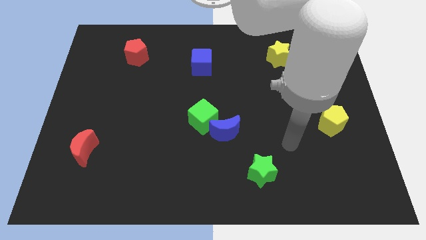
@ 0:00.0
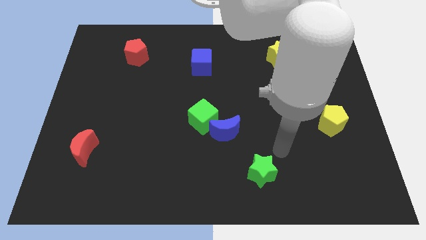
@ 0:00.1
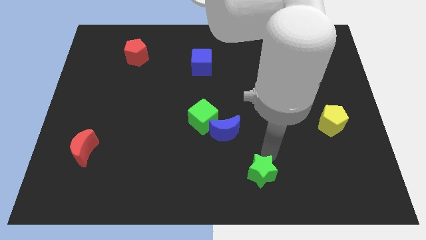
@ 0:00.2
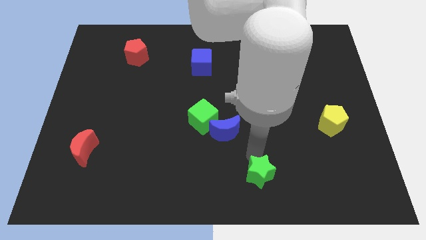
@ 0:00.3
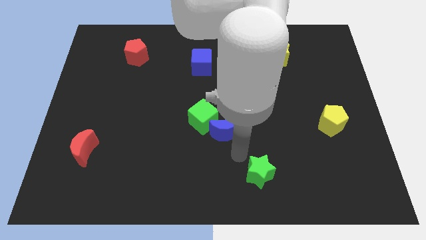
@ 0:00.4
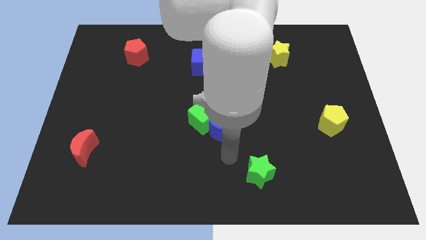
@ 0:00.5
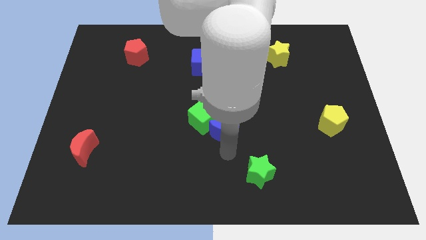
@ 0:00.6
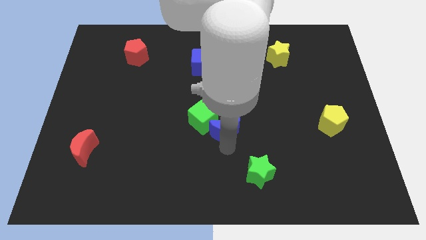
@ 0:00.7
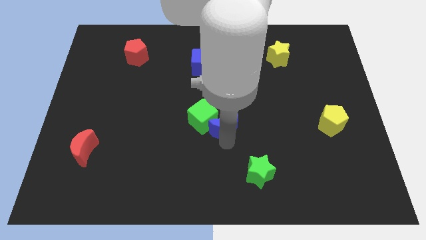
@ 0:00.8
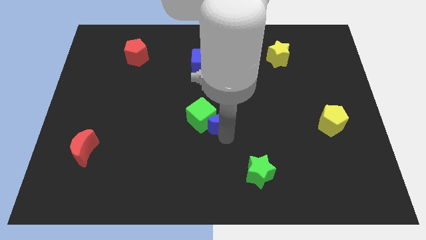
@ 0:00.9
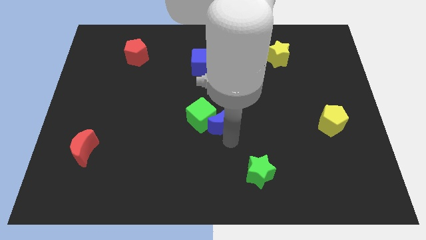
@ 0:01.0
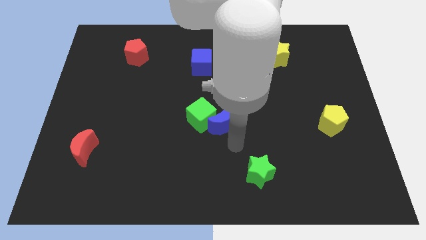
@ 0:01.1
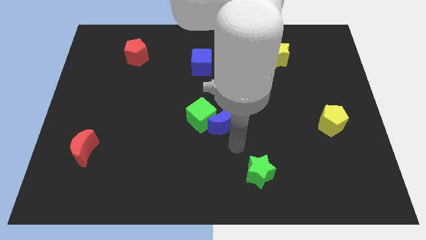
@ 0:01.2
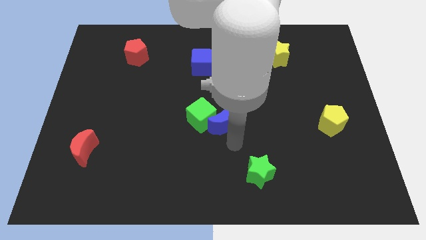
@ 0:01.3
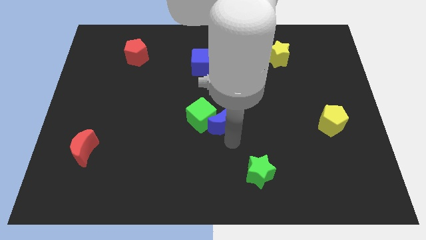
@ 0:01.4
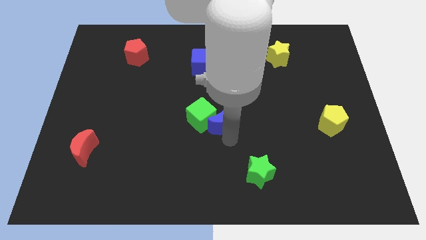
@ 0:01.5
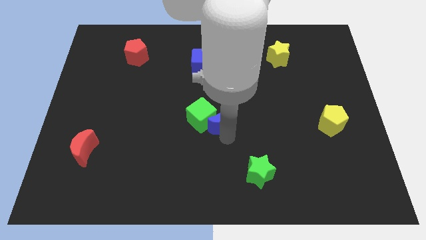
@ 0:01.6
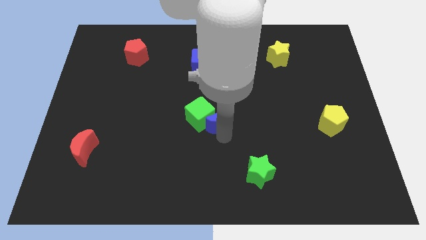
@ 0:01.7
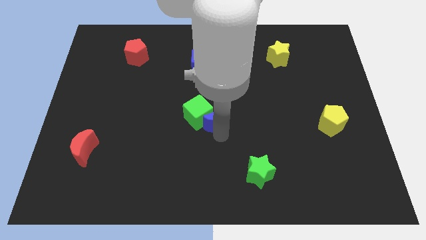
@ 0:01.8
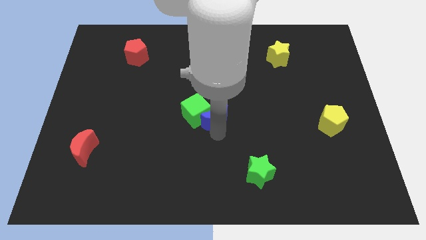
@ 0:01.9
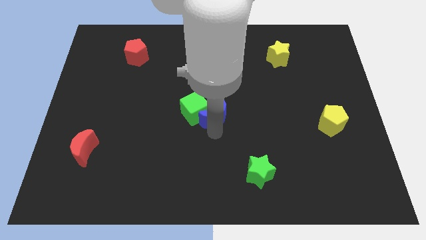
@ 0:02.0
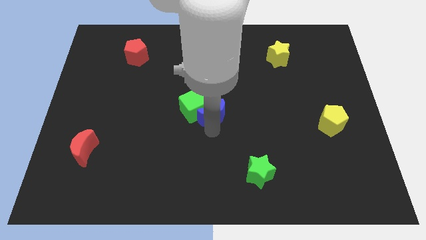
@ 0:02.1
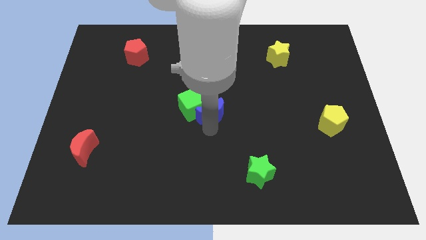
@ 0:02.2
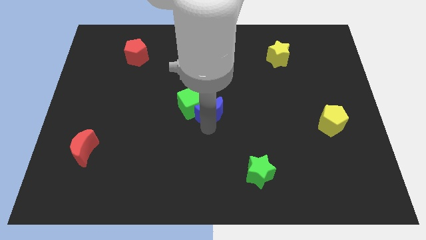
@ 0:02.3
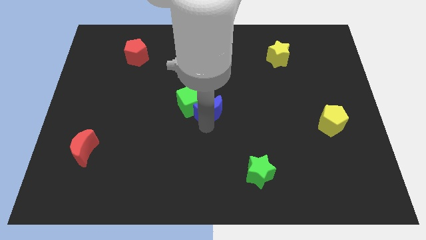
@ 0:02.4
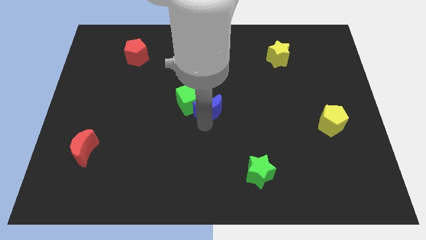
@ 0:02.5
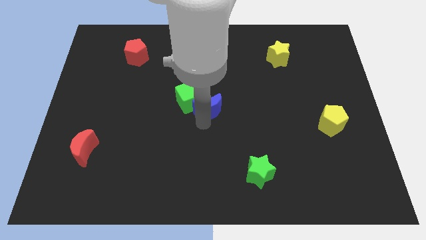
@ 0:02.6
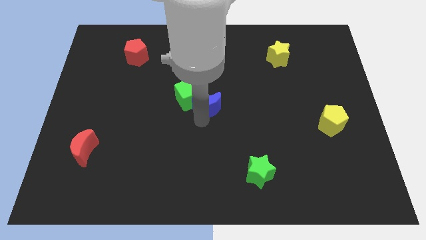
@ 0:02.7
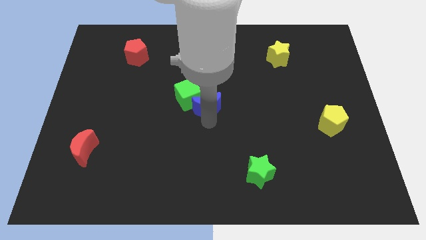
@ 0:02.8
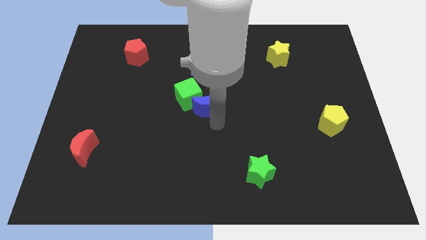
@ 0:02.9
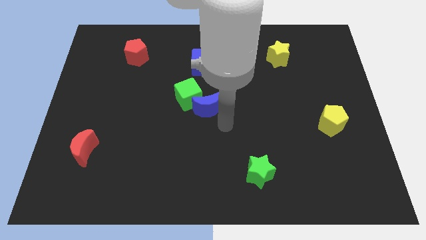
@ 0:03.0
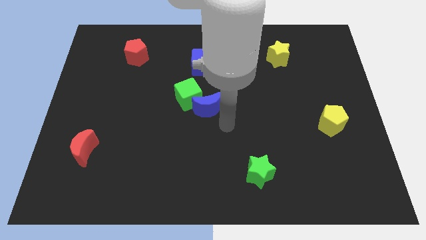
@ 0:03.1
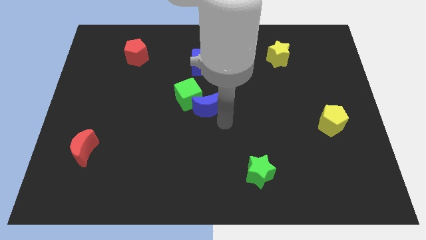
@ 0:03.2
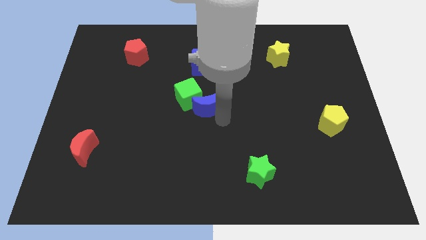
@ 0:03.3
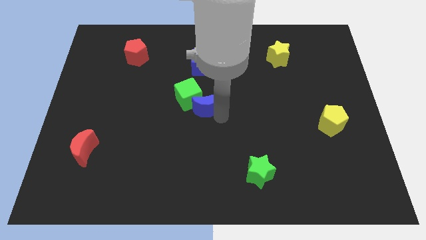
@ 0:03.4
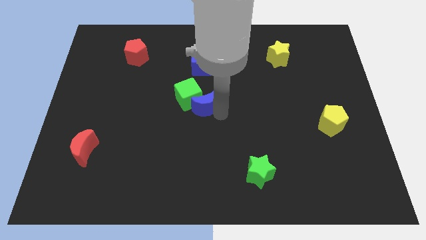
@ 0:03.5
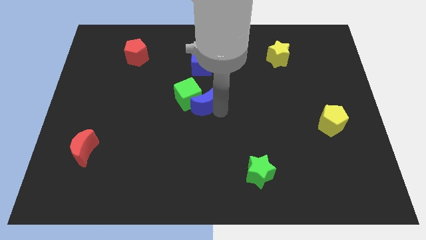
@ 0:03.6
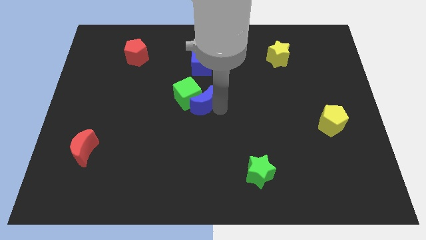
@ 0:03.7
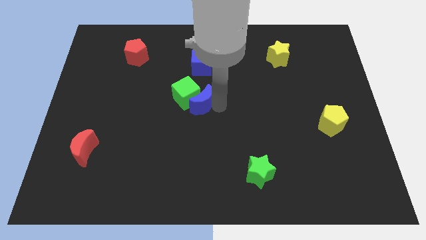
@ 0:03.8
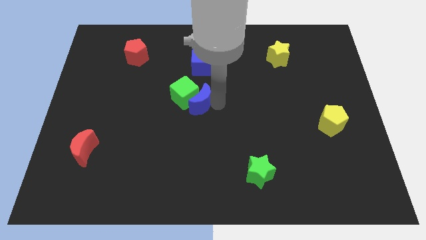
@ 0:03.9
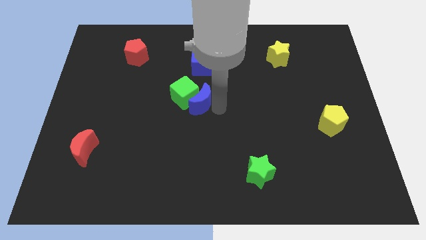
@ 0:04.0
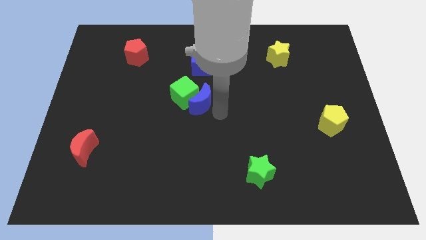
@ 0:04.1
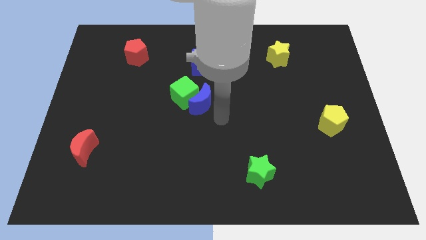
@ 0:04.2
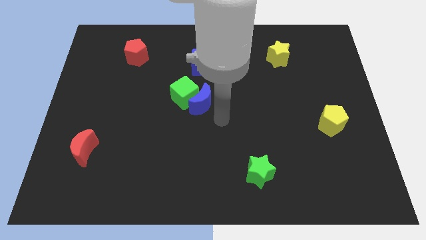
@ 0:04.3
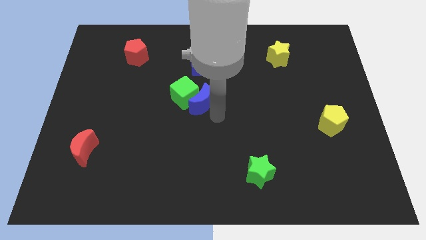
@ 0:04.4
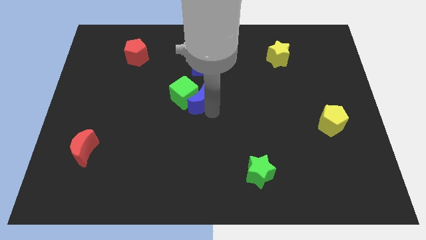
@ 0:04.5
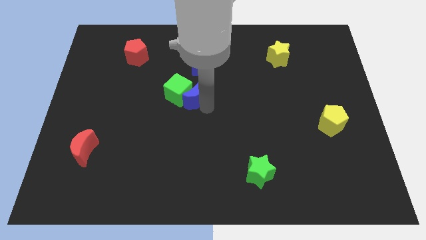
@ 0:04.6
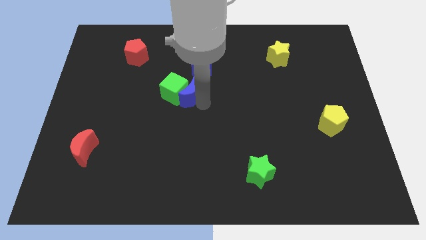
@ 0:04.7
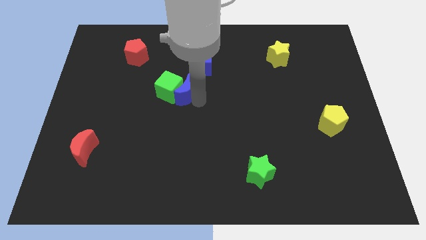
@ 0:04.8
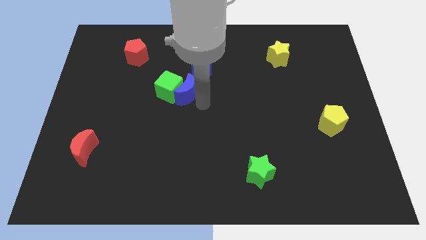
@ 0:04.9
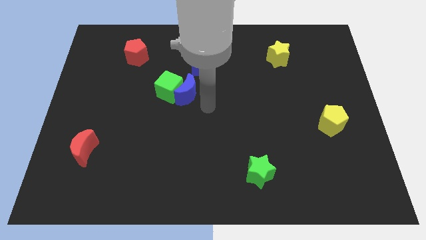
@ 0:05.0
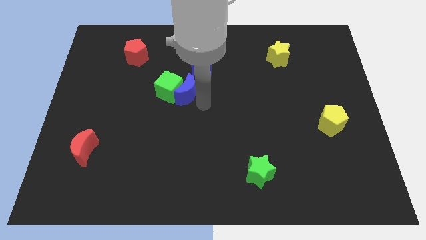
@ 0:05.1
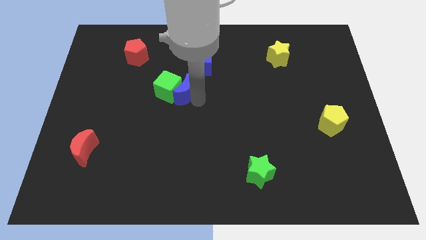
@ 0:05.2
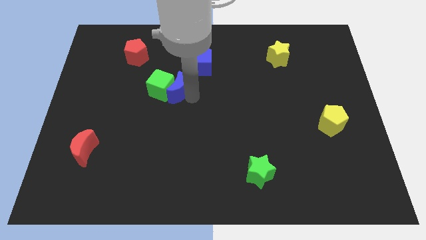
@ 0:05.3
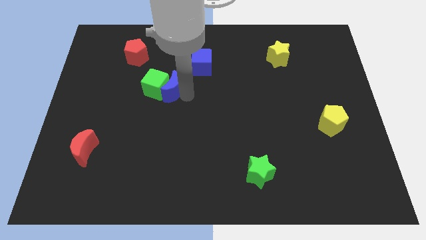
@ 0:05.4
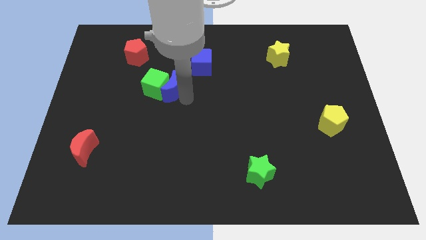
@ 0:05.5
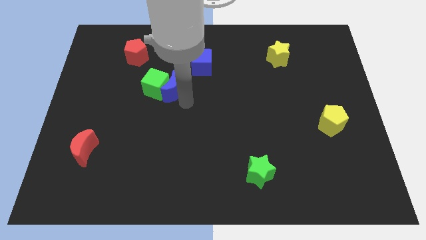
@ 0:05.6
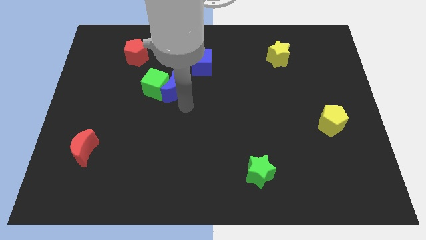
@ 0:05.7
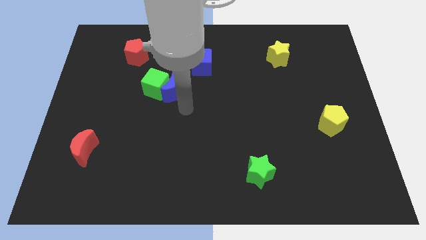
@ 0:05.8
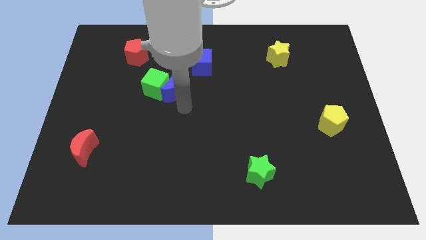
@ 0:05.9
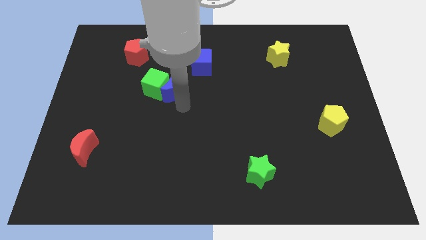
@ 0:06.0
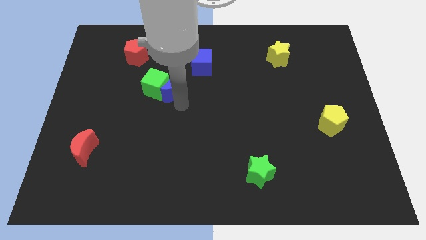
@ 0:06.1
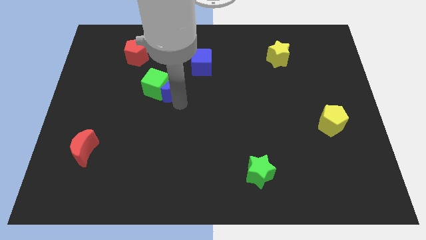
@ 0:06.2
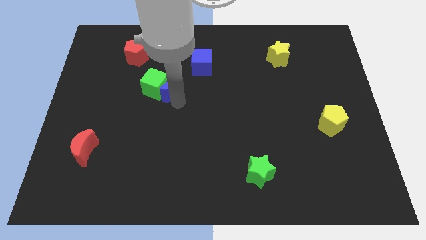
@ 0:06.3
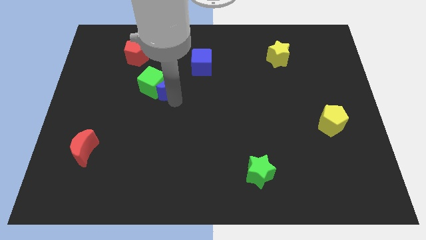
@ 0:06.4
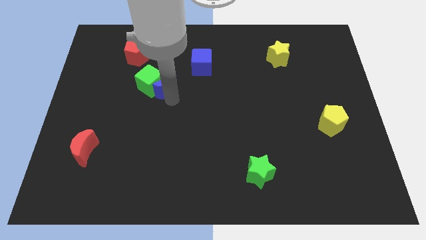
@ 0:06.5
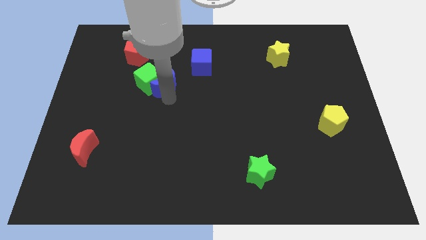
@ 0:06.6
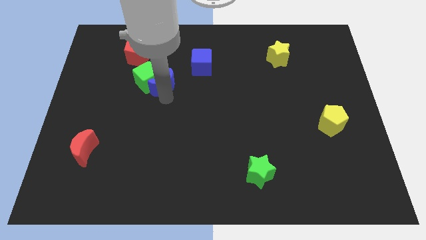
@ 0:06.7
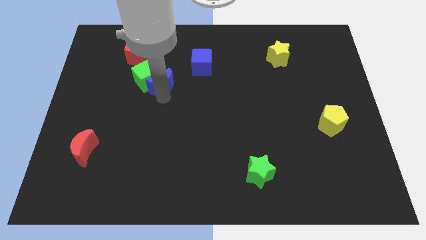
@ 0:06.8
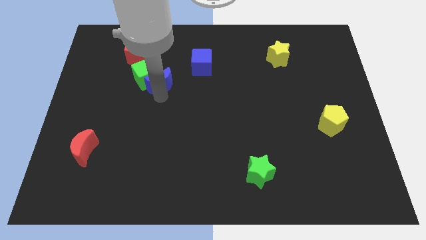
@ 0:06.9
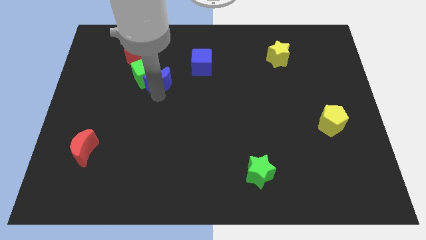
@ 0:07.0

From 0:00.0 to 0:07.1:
slide the blue moon to the bottom right side of the red pentagon
